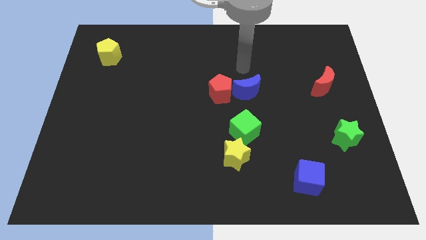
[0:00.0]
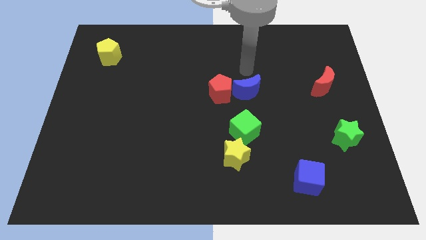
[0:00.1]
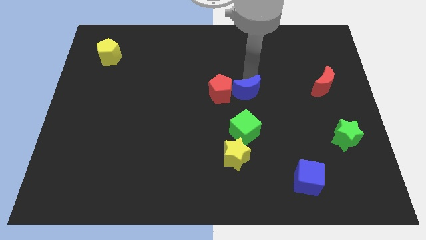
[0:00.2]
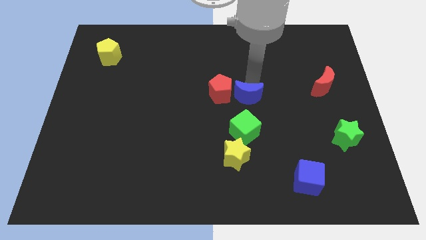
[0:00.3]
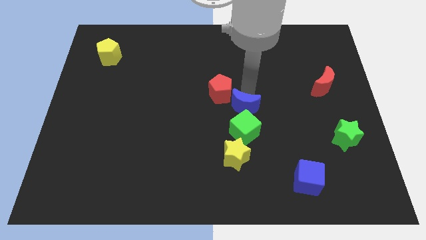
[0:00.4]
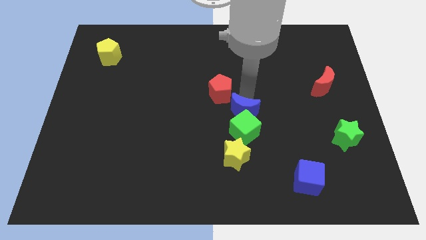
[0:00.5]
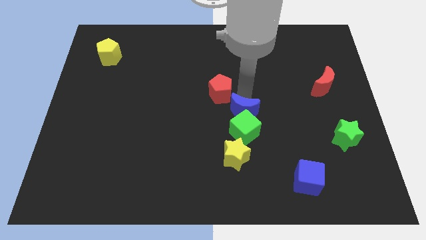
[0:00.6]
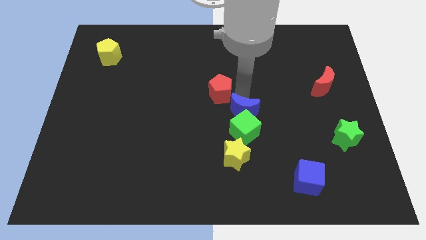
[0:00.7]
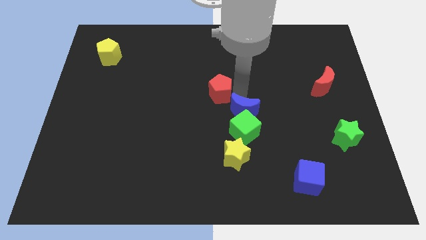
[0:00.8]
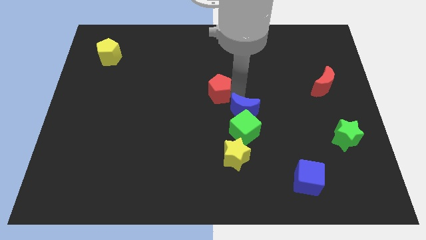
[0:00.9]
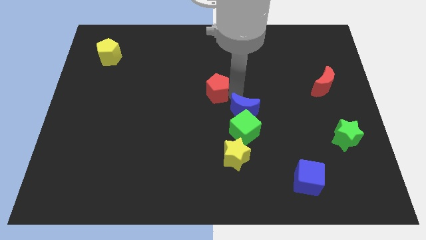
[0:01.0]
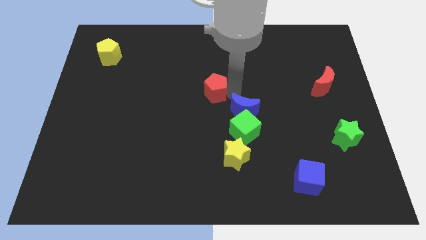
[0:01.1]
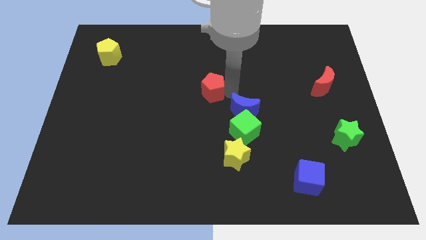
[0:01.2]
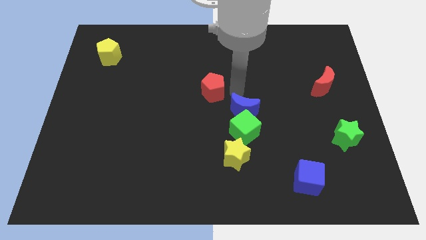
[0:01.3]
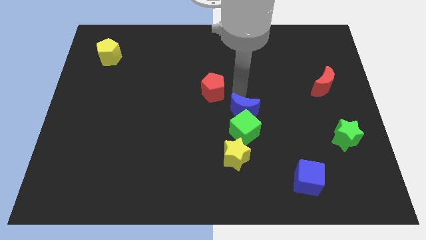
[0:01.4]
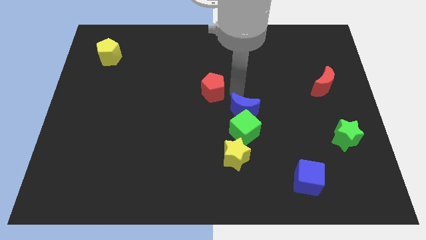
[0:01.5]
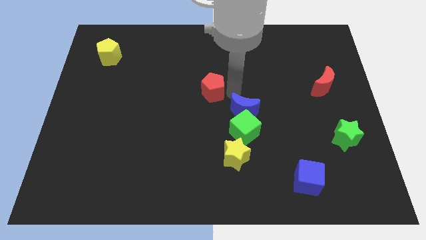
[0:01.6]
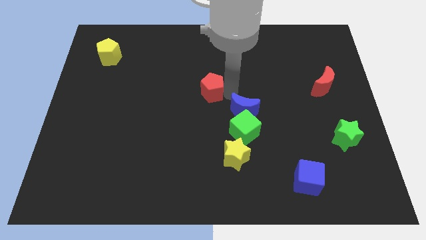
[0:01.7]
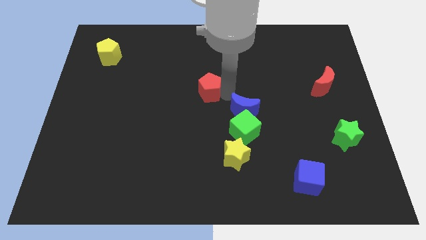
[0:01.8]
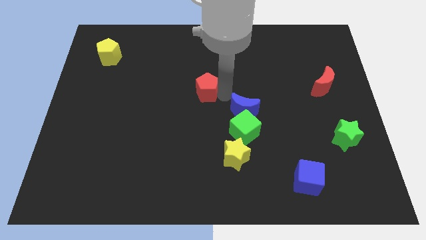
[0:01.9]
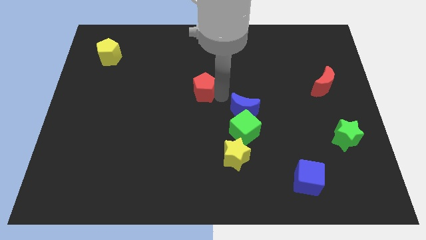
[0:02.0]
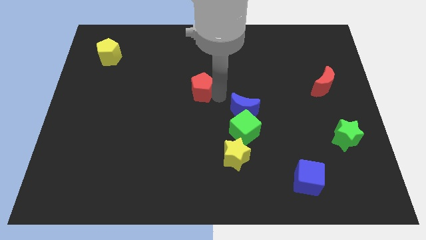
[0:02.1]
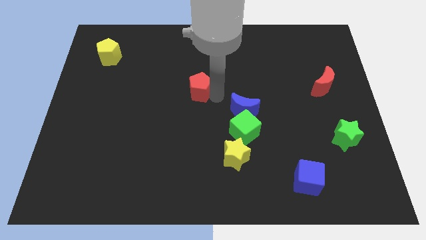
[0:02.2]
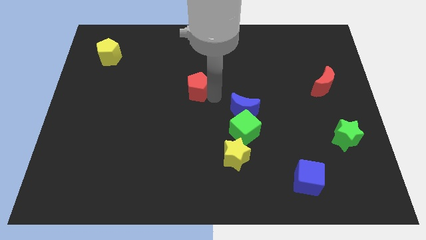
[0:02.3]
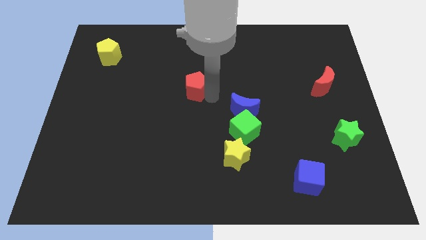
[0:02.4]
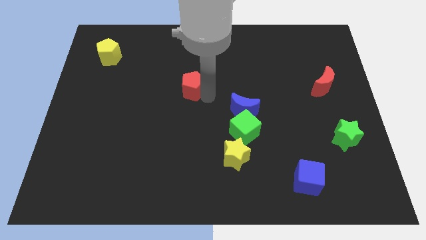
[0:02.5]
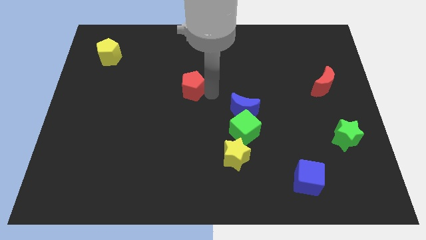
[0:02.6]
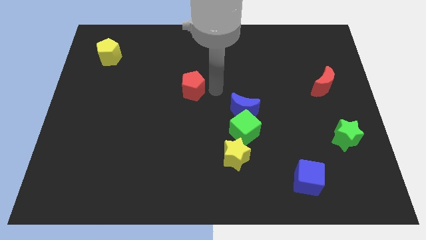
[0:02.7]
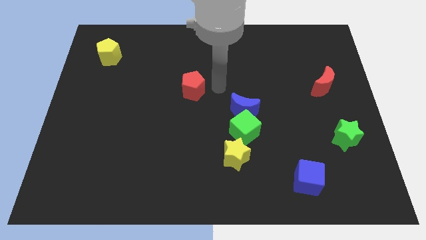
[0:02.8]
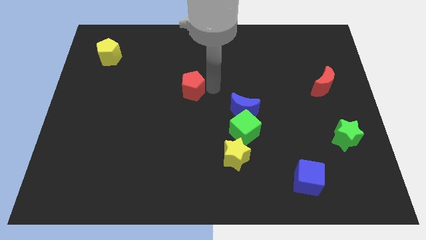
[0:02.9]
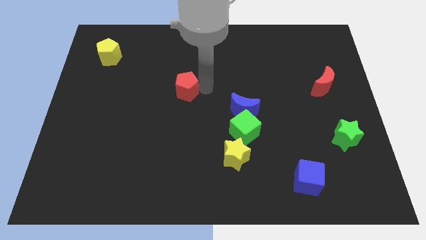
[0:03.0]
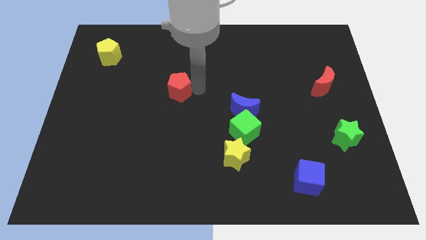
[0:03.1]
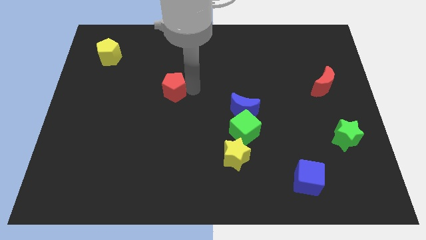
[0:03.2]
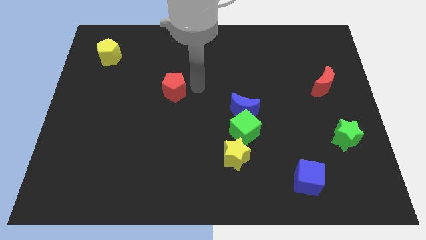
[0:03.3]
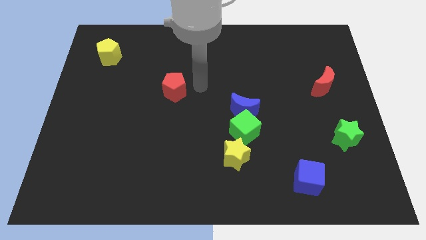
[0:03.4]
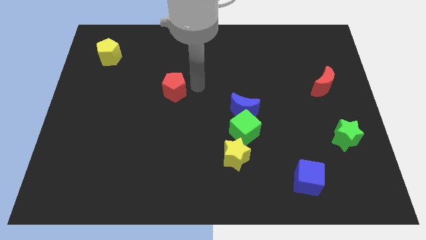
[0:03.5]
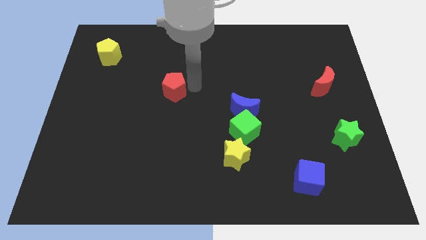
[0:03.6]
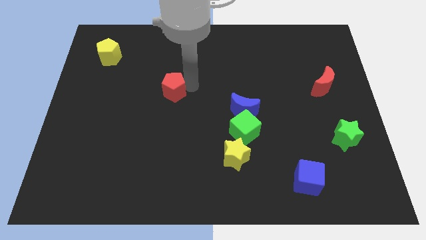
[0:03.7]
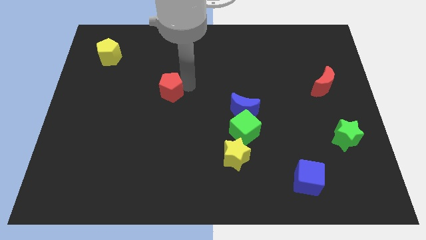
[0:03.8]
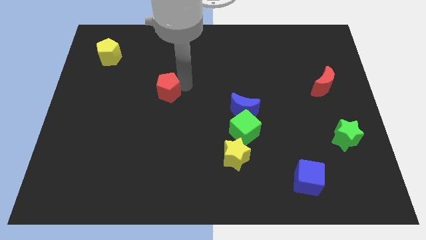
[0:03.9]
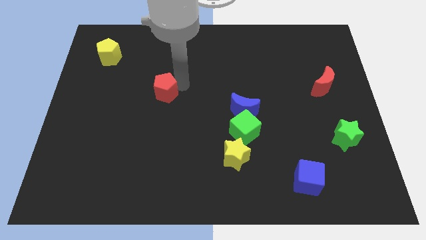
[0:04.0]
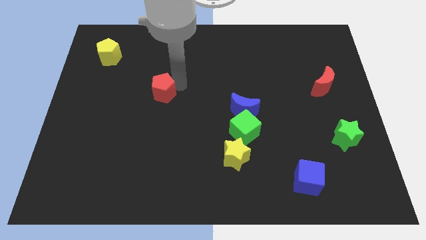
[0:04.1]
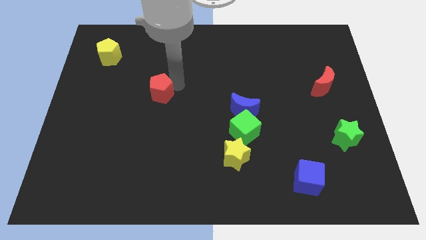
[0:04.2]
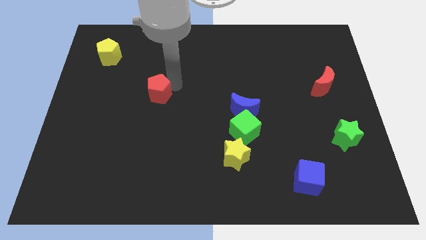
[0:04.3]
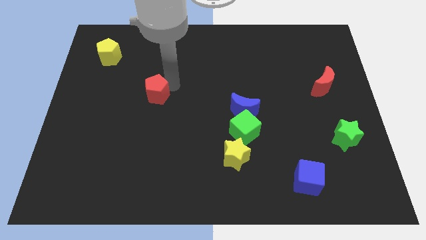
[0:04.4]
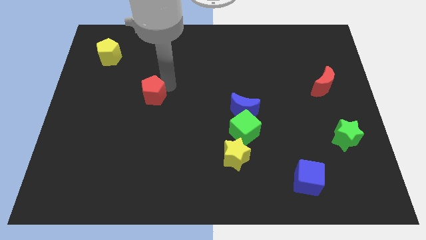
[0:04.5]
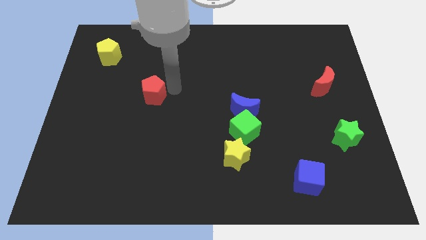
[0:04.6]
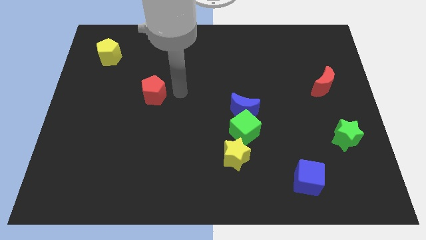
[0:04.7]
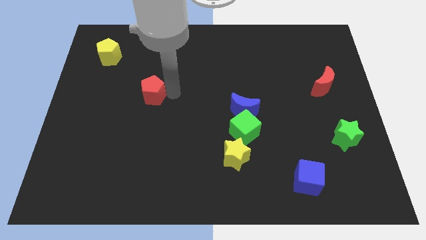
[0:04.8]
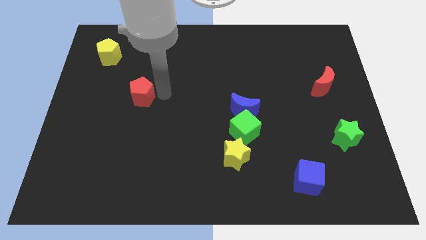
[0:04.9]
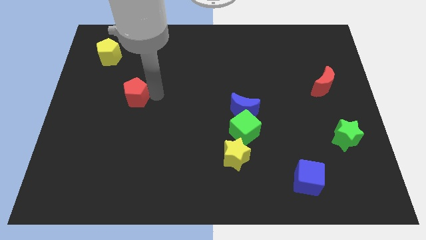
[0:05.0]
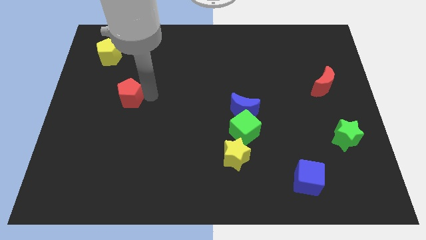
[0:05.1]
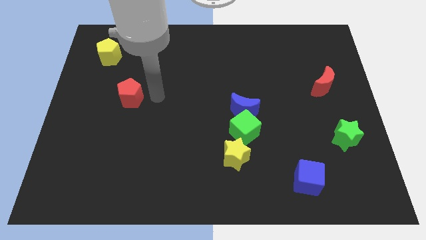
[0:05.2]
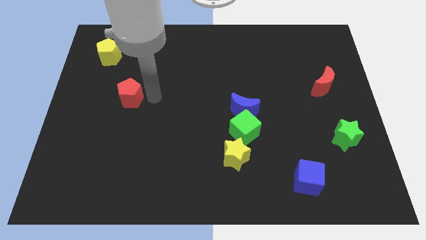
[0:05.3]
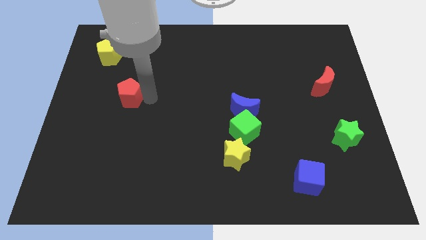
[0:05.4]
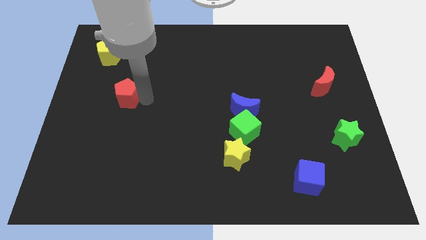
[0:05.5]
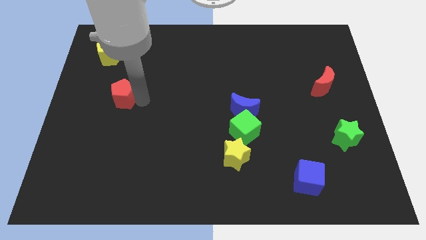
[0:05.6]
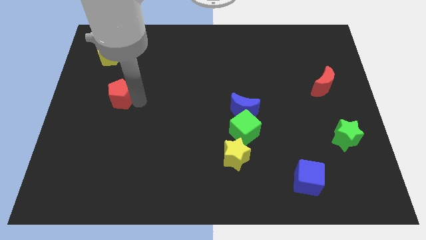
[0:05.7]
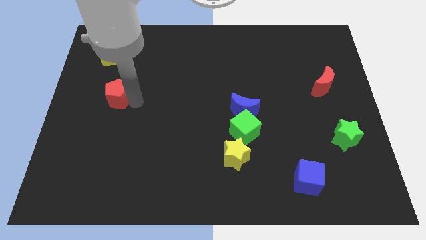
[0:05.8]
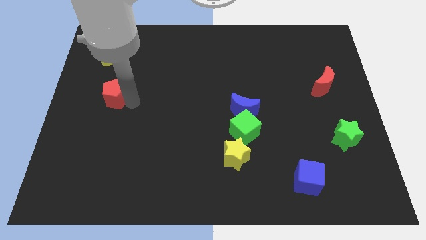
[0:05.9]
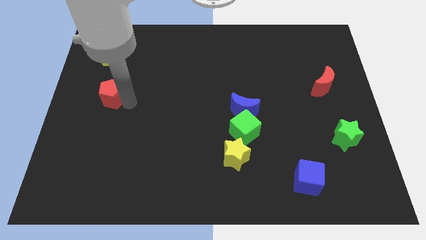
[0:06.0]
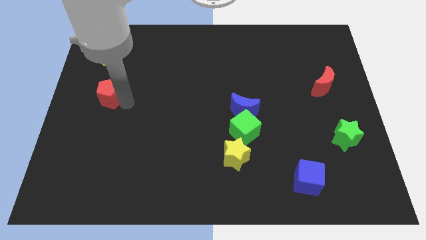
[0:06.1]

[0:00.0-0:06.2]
push the red pentagon to the center left
